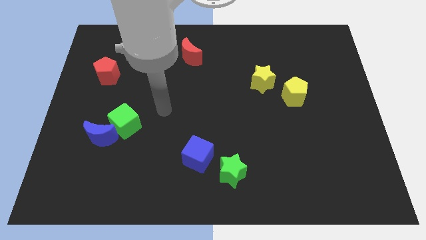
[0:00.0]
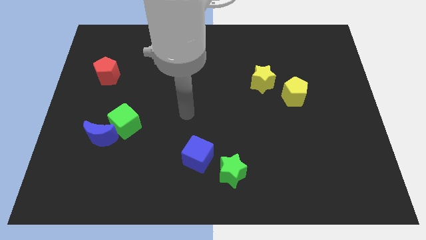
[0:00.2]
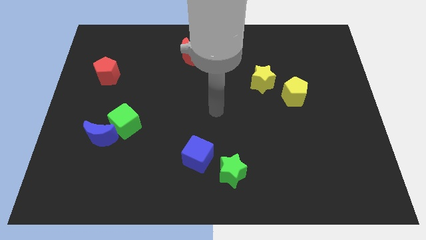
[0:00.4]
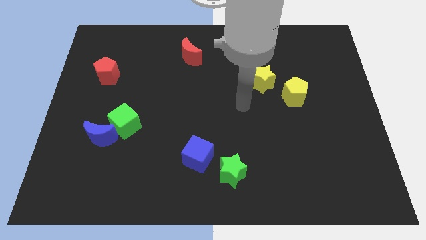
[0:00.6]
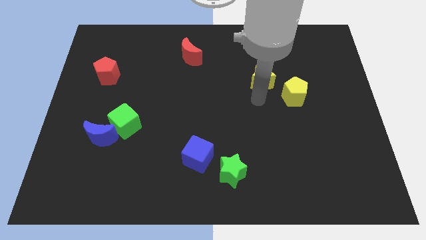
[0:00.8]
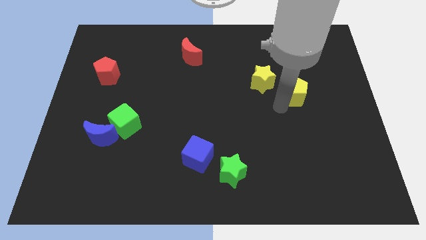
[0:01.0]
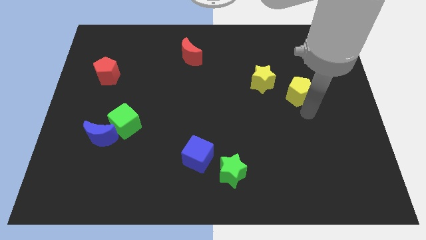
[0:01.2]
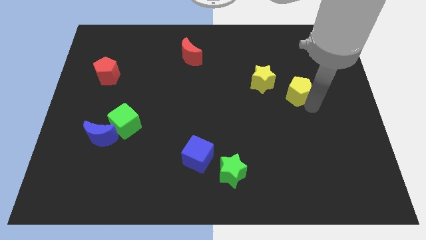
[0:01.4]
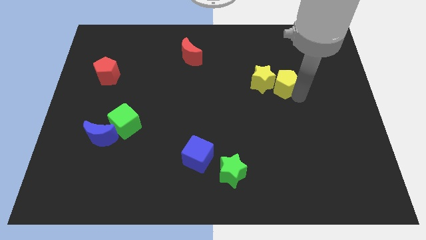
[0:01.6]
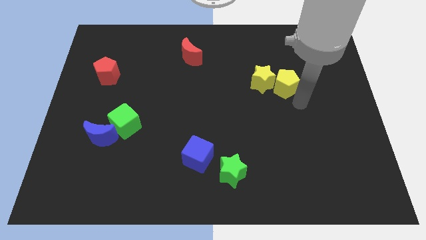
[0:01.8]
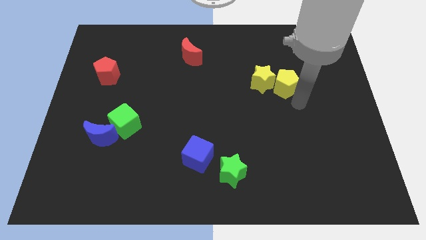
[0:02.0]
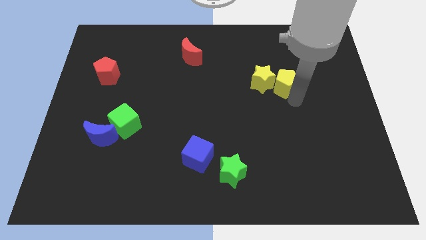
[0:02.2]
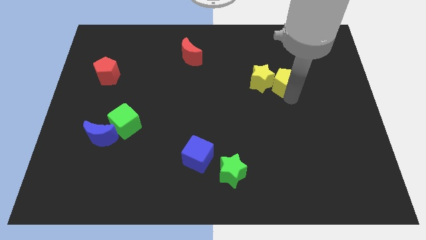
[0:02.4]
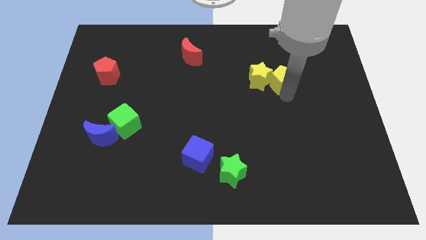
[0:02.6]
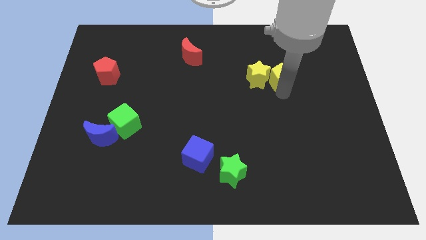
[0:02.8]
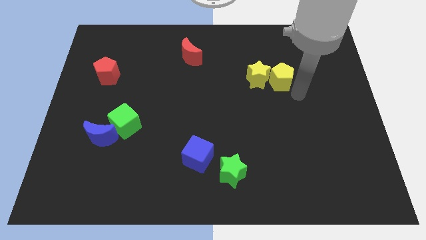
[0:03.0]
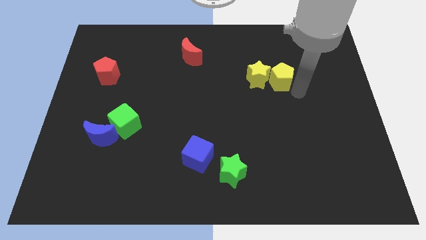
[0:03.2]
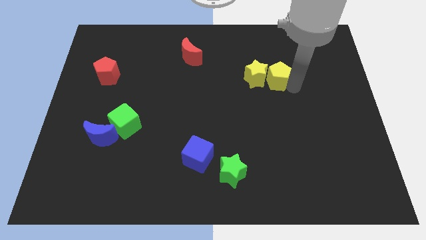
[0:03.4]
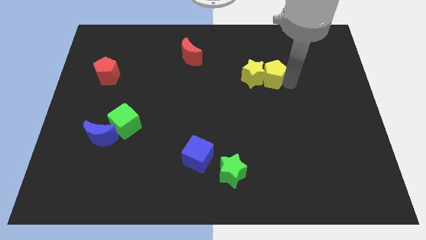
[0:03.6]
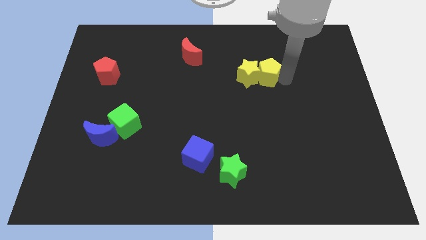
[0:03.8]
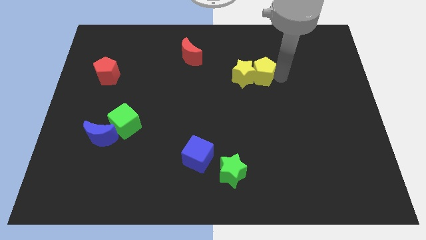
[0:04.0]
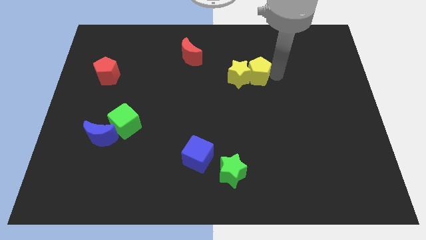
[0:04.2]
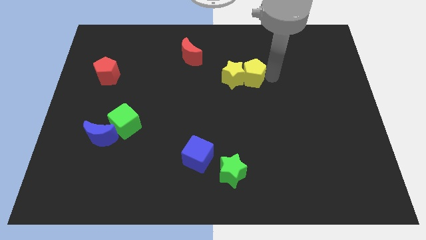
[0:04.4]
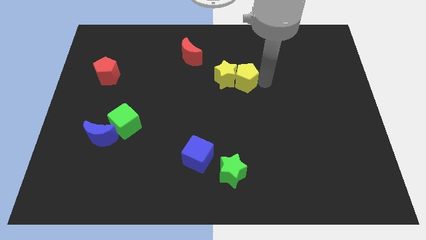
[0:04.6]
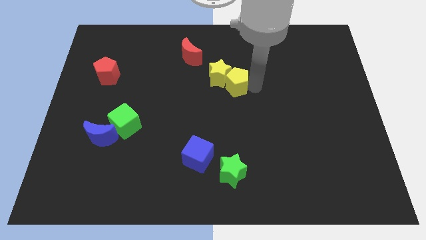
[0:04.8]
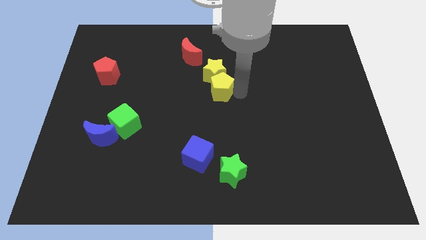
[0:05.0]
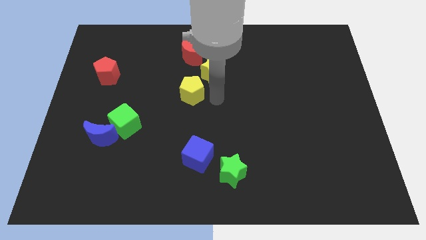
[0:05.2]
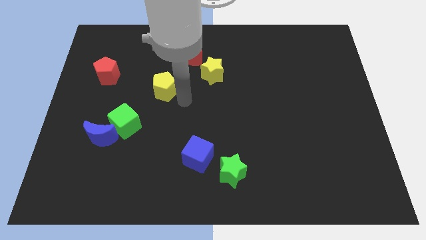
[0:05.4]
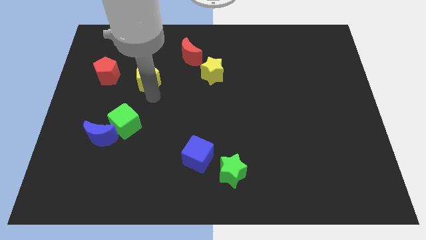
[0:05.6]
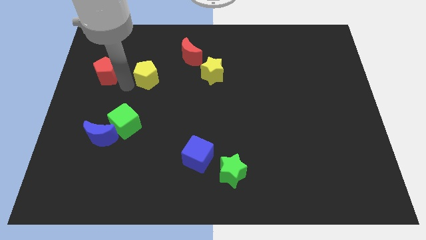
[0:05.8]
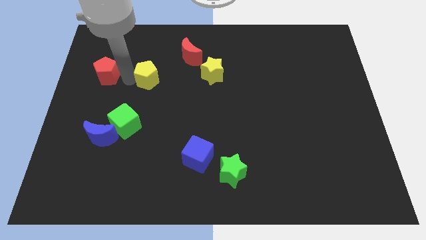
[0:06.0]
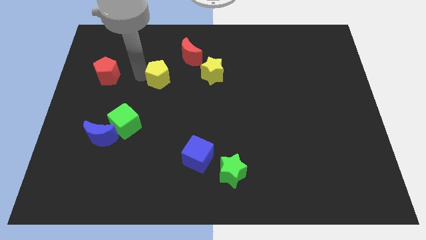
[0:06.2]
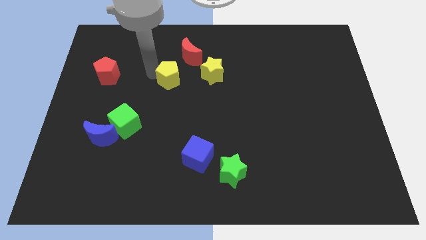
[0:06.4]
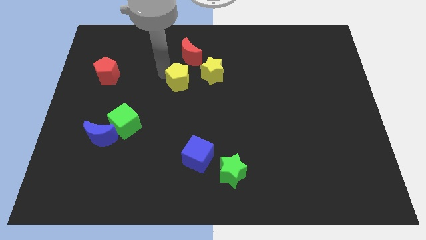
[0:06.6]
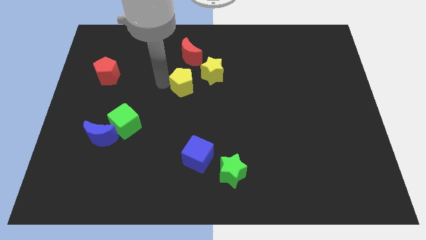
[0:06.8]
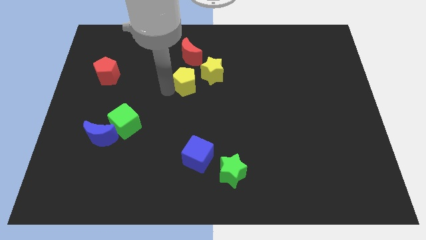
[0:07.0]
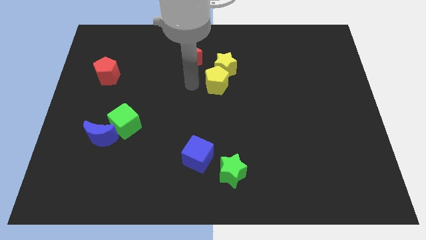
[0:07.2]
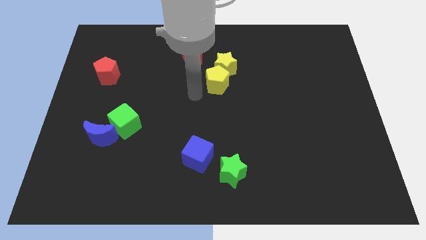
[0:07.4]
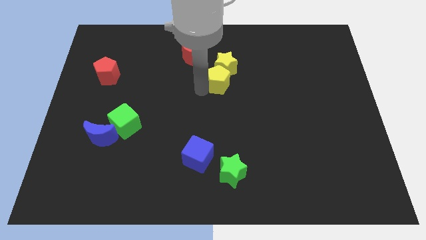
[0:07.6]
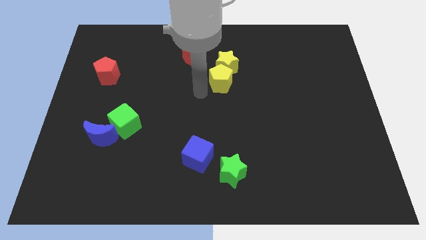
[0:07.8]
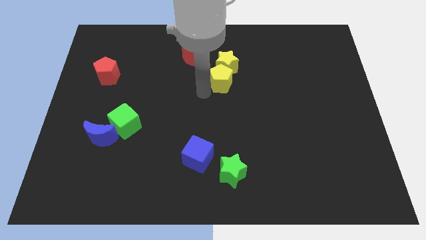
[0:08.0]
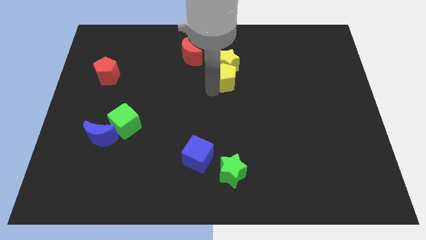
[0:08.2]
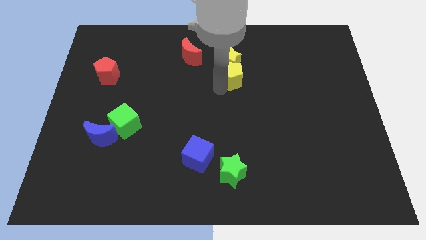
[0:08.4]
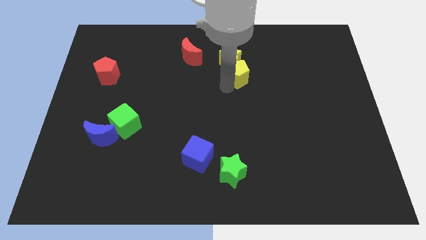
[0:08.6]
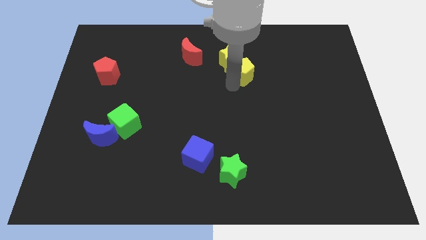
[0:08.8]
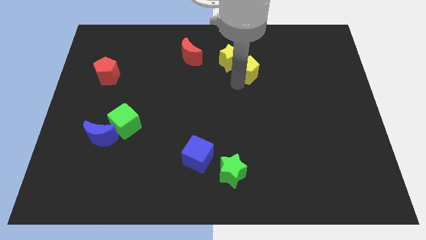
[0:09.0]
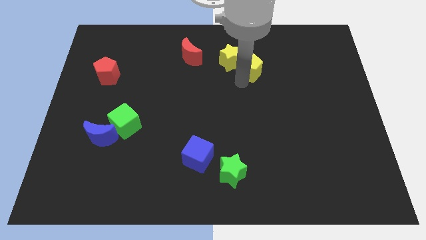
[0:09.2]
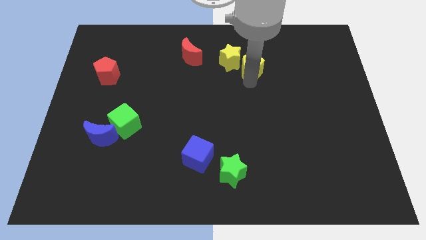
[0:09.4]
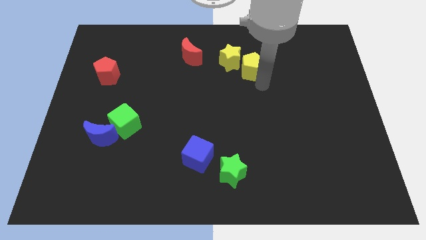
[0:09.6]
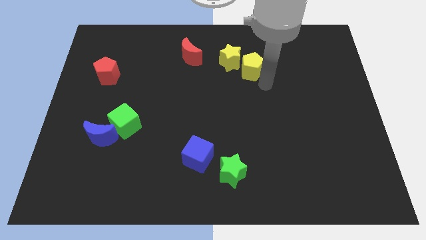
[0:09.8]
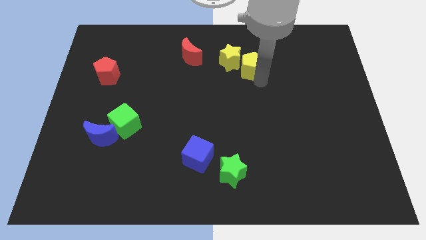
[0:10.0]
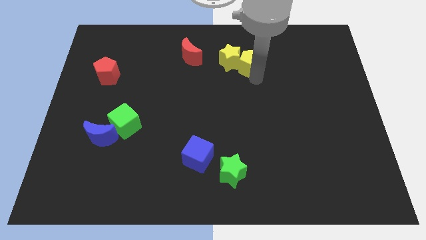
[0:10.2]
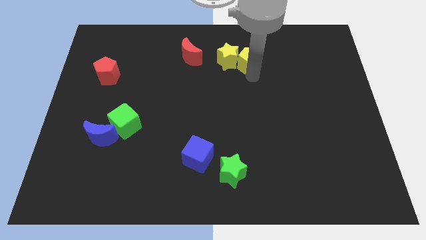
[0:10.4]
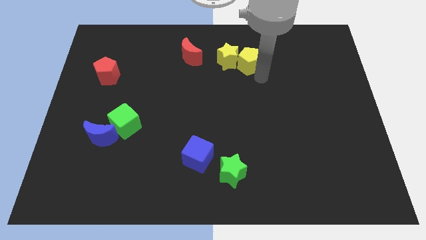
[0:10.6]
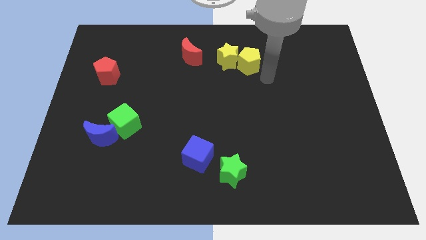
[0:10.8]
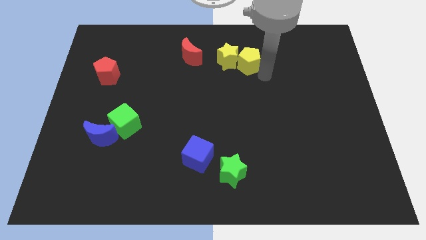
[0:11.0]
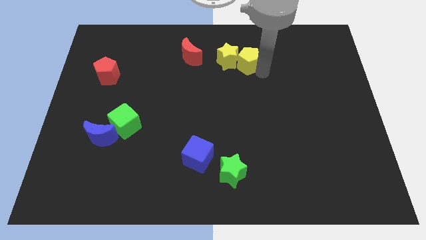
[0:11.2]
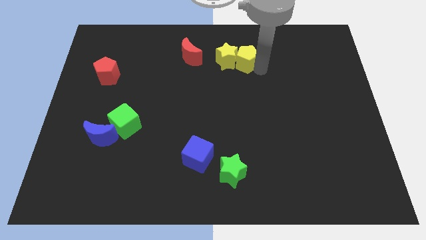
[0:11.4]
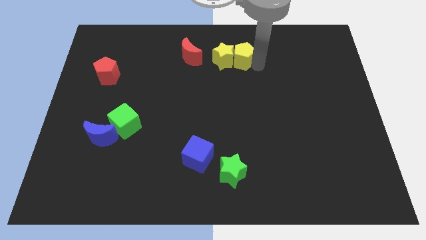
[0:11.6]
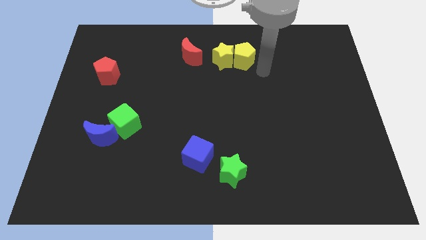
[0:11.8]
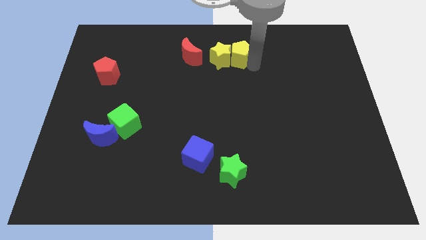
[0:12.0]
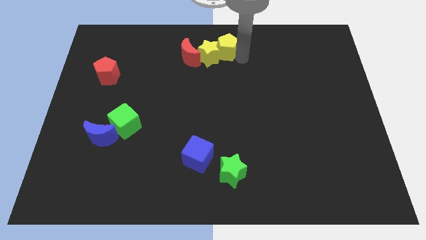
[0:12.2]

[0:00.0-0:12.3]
slide the yellow pentagon to the towards your base
